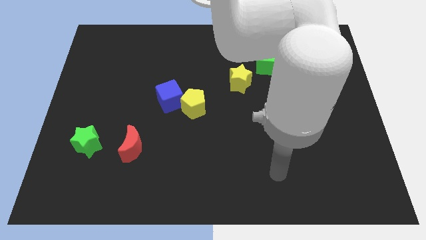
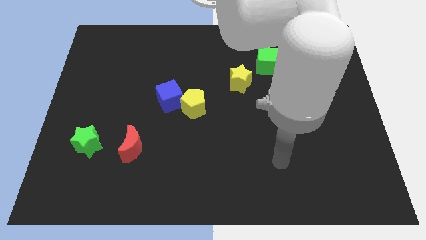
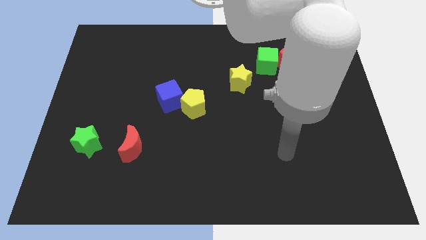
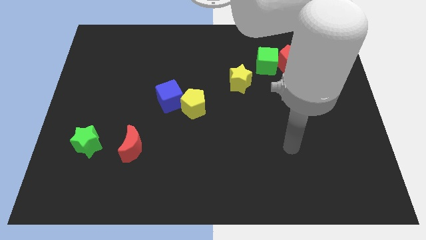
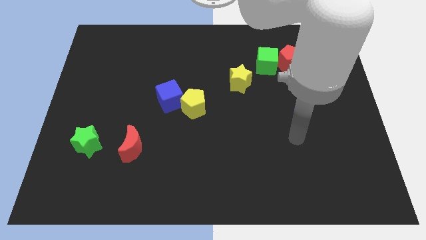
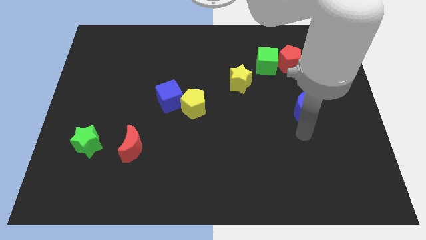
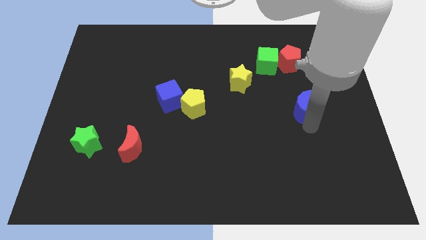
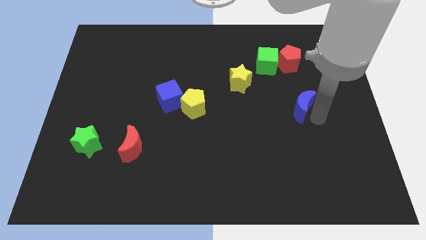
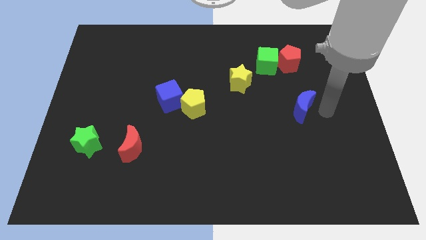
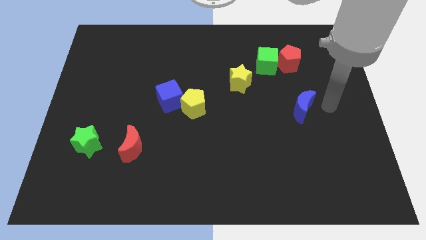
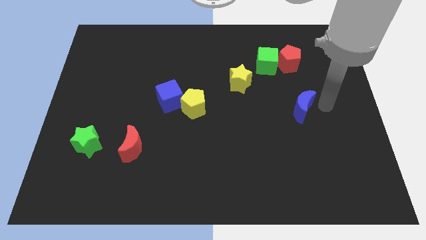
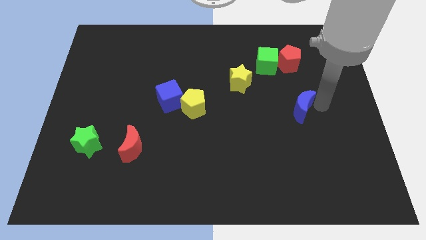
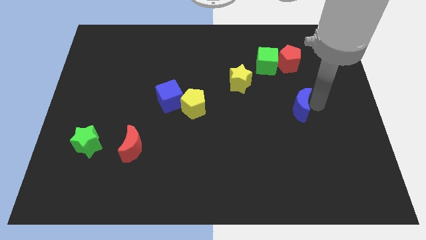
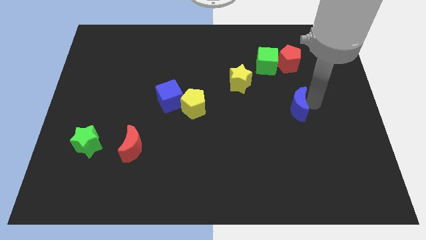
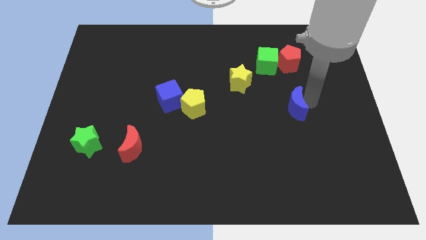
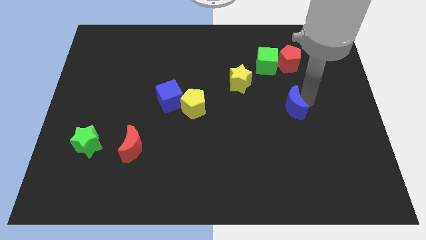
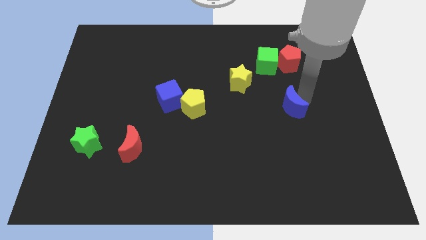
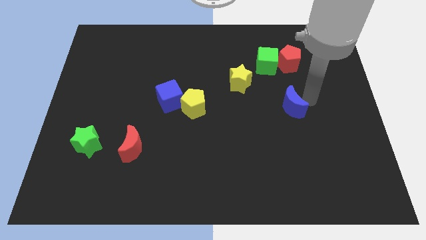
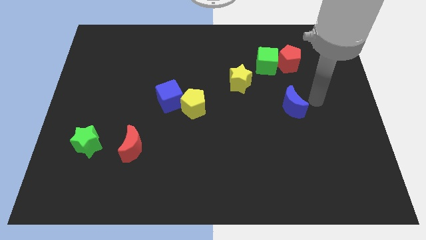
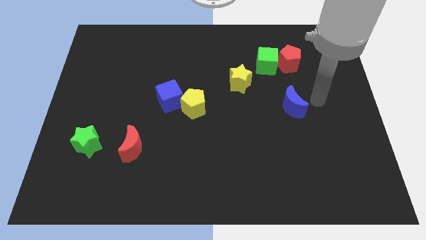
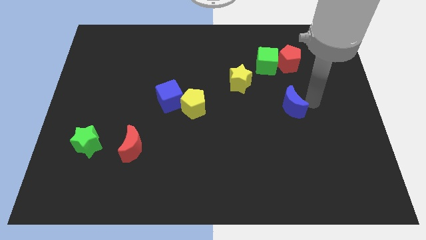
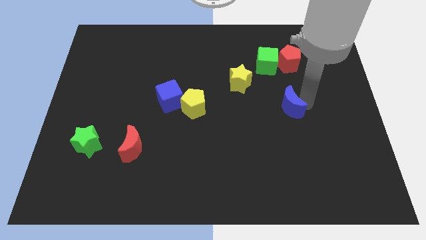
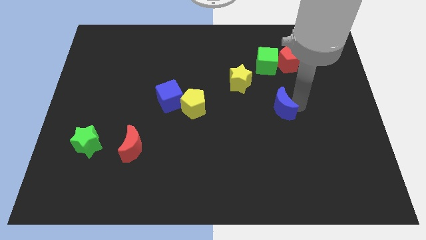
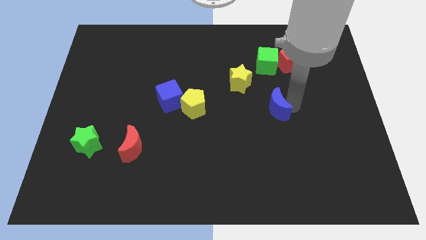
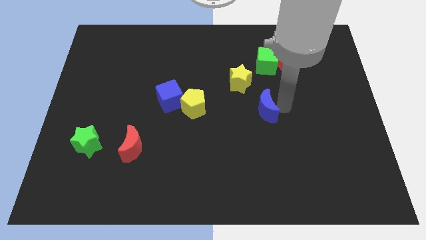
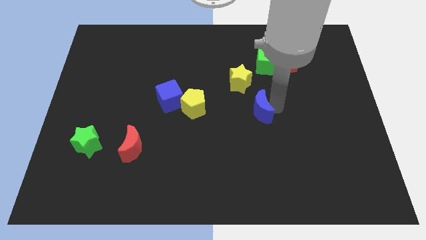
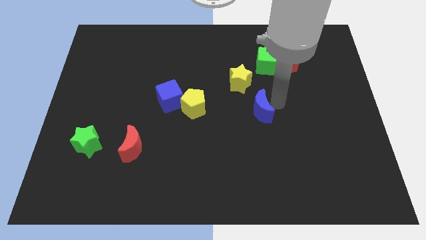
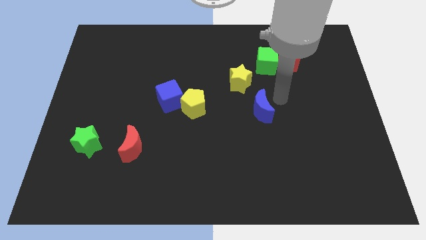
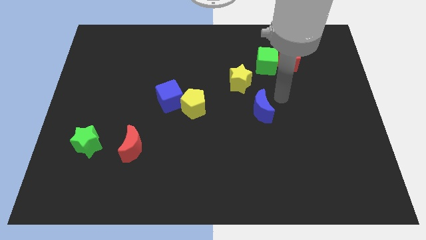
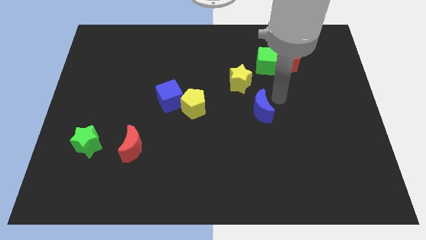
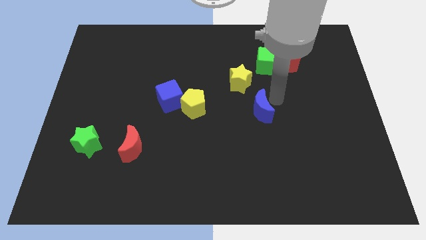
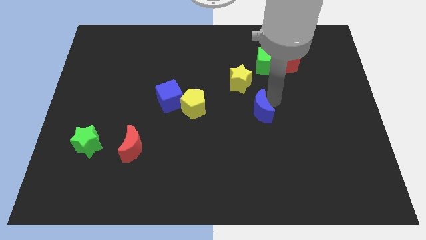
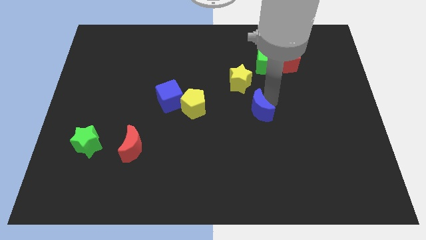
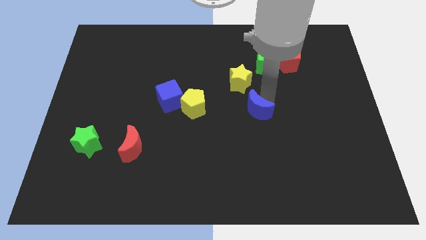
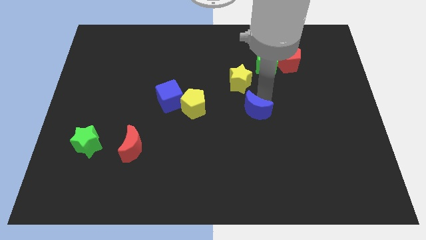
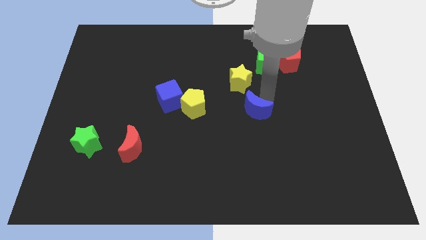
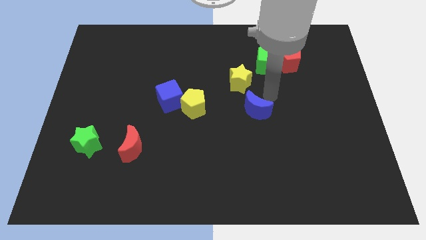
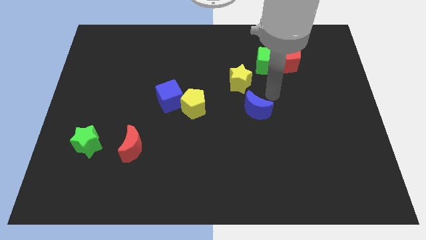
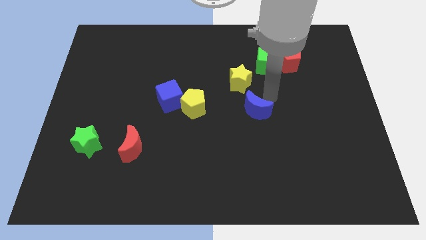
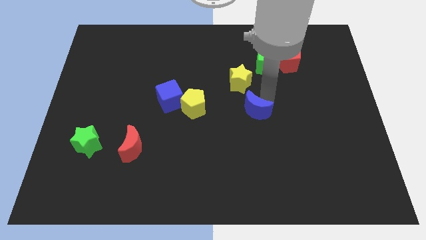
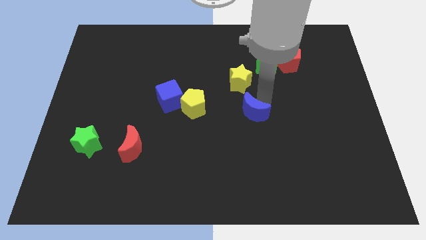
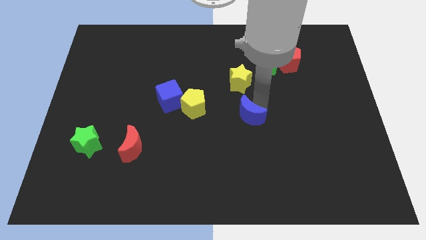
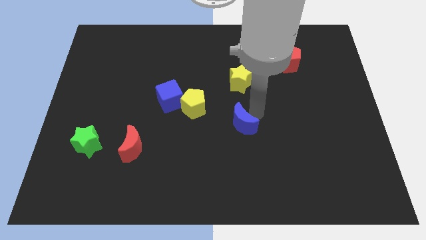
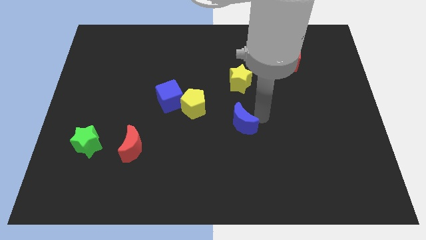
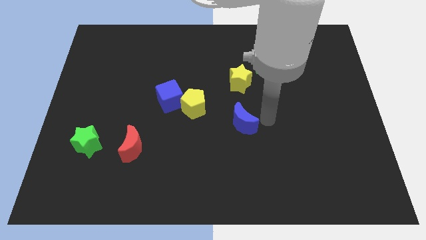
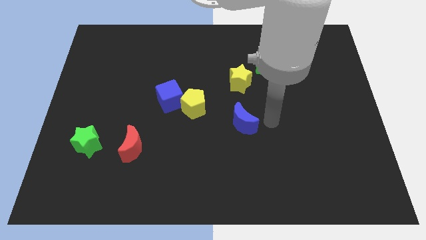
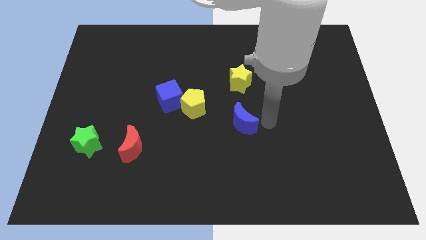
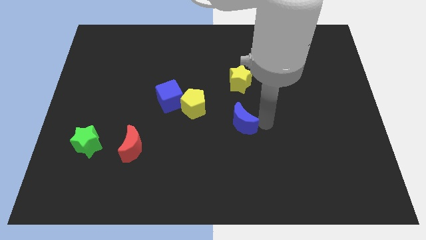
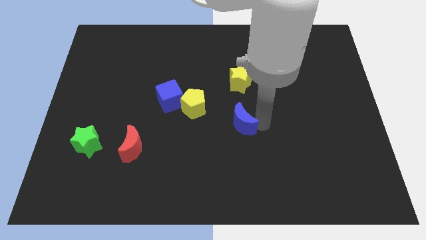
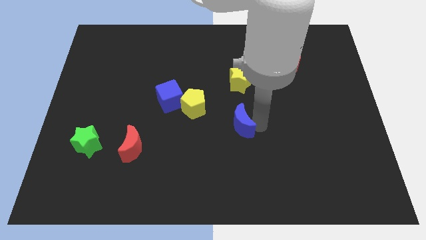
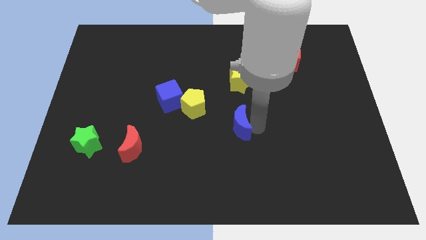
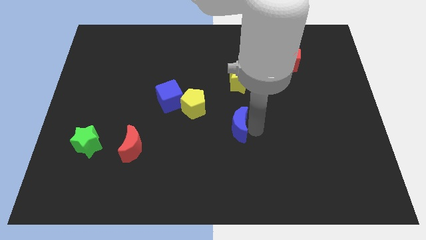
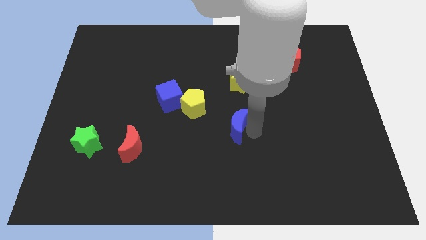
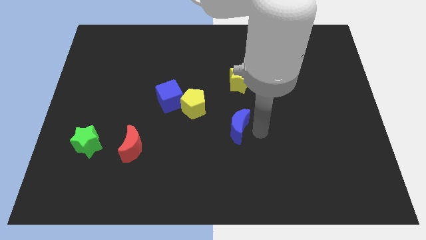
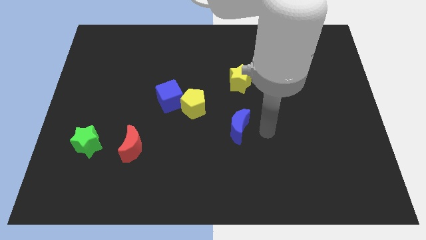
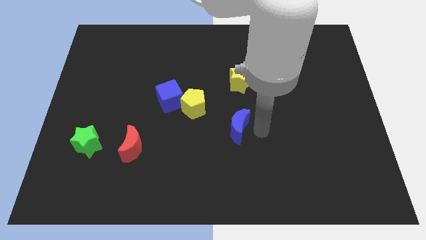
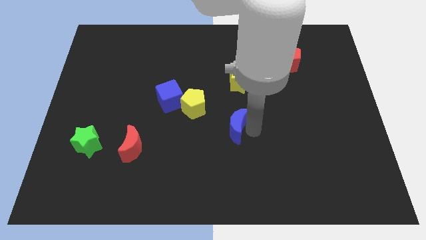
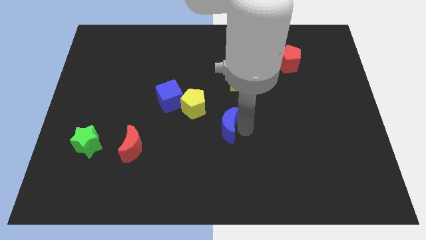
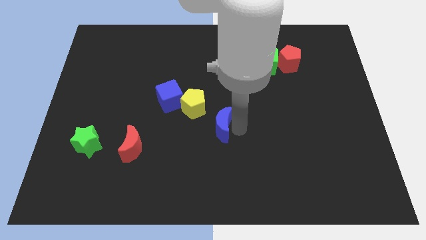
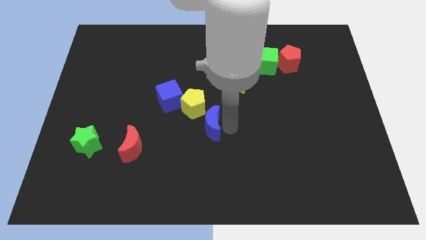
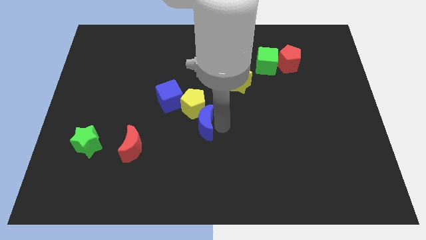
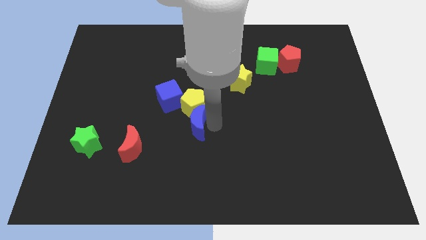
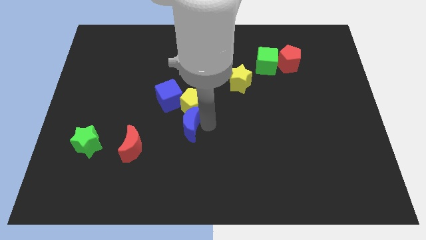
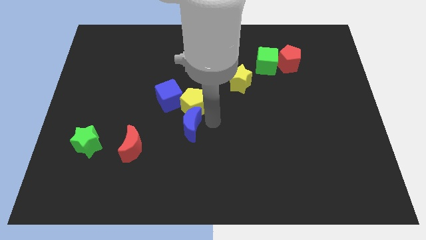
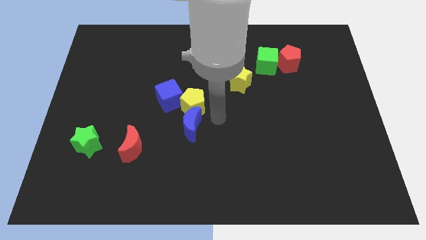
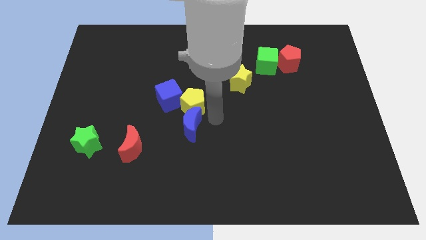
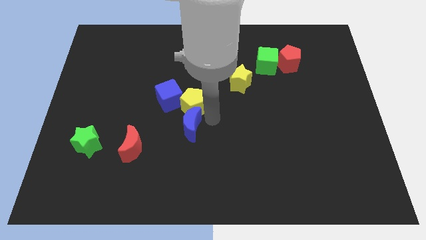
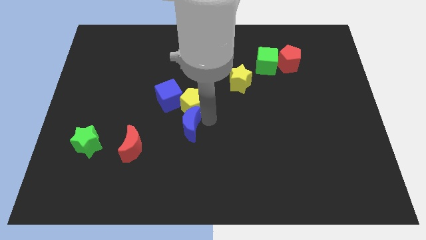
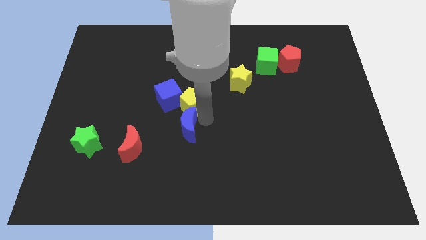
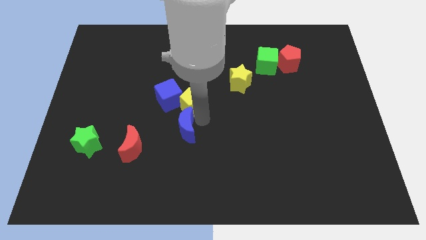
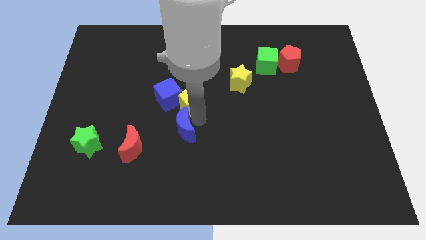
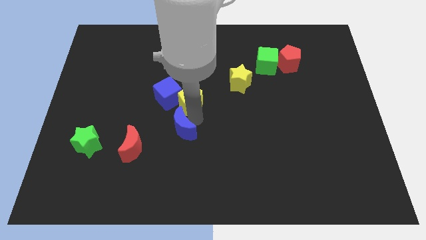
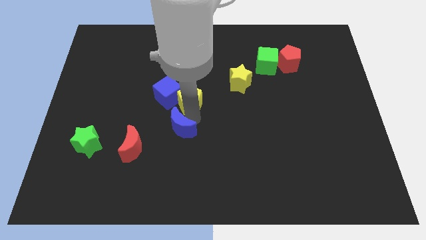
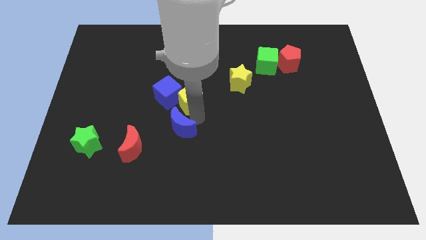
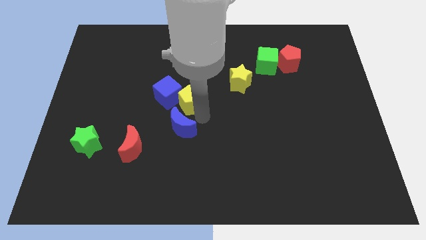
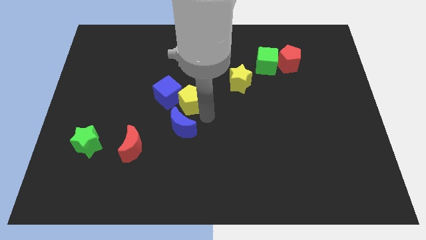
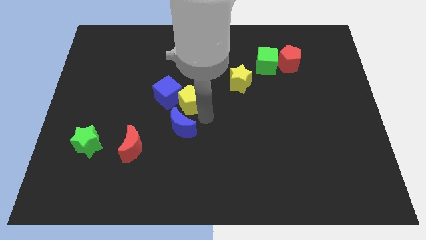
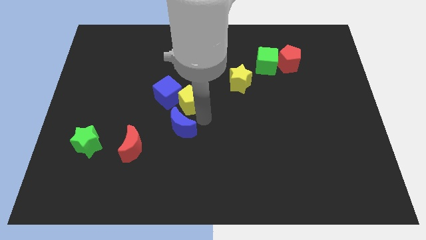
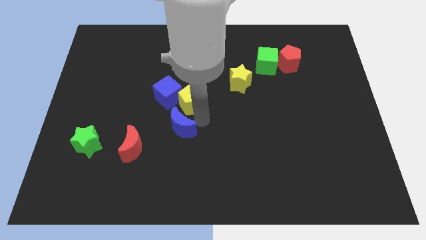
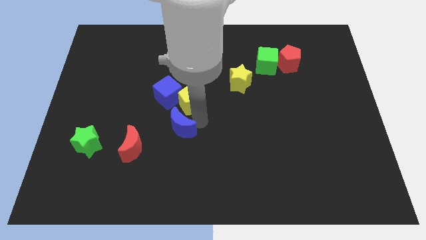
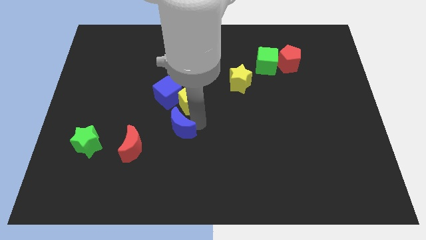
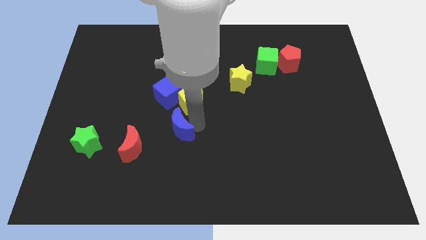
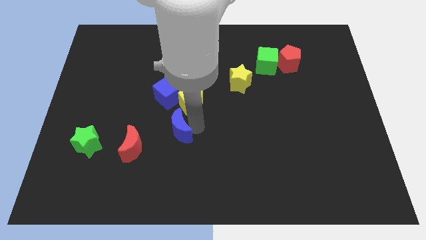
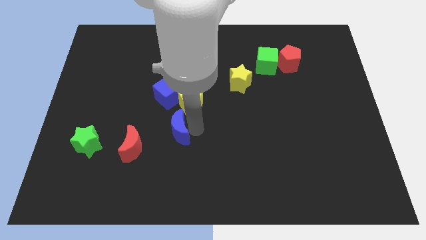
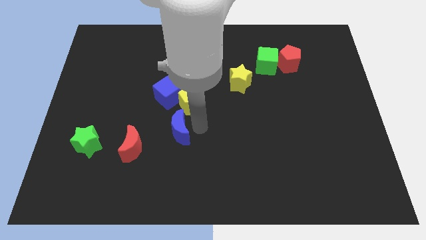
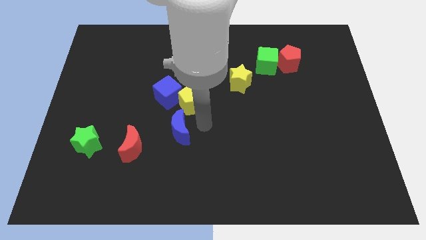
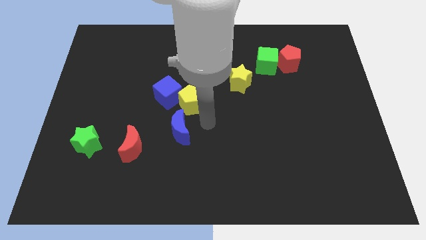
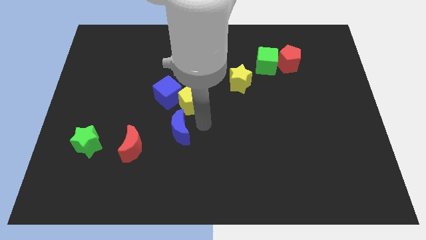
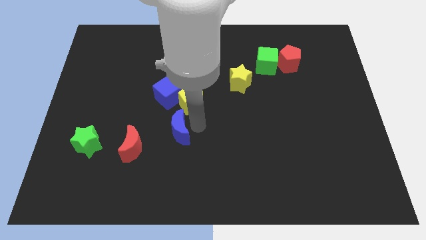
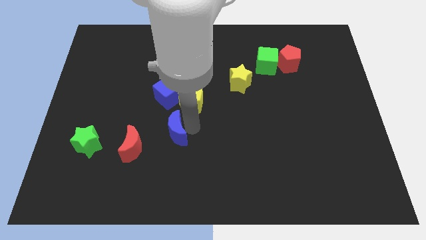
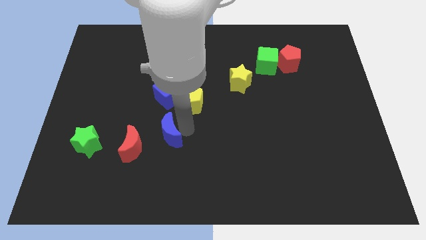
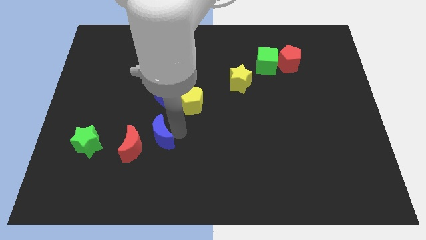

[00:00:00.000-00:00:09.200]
move the blue moon to the right side of the green star
